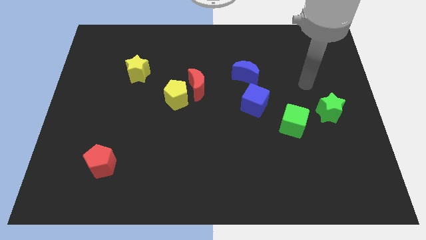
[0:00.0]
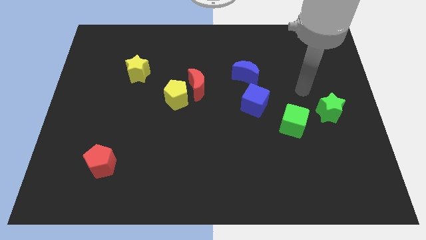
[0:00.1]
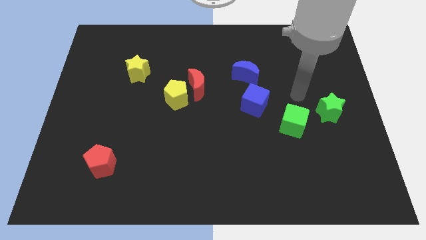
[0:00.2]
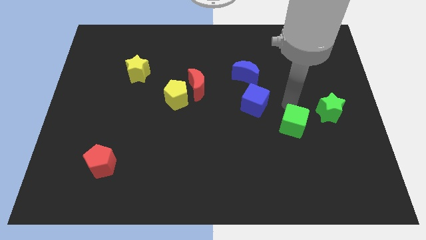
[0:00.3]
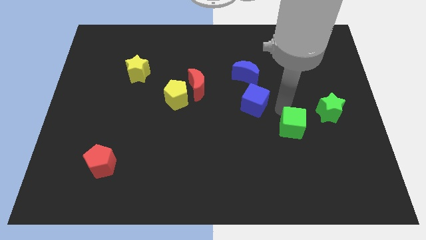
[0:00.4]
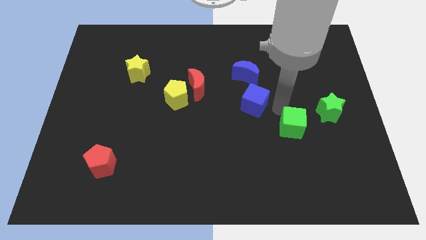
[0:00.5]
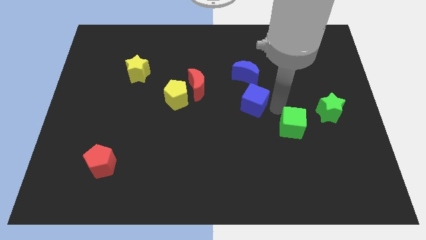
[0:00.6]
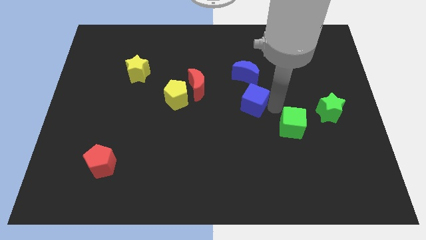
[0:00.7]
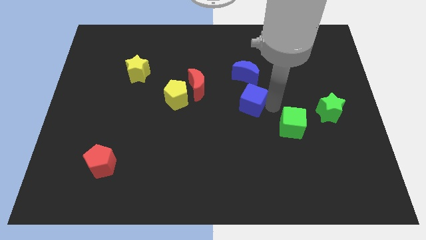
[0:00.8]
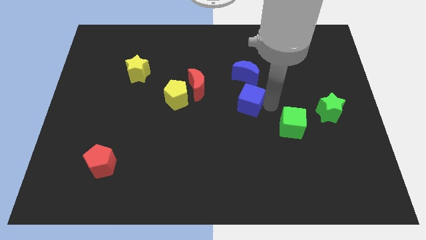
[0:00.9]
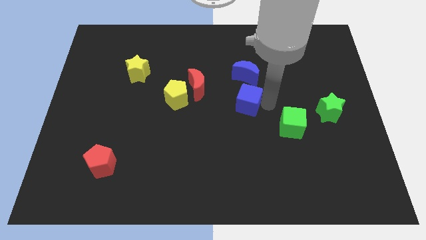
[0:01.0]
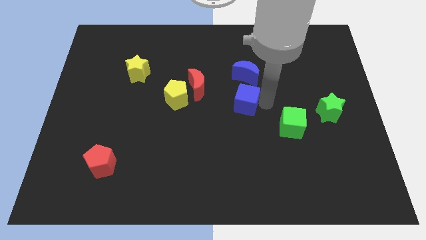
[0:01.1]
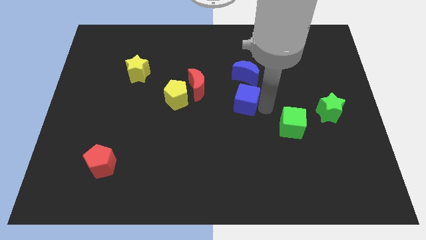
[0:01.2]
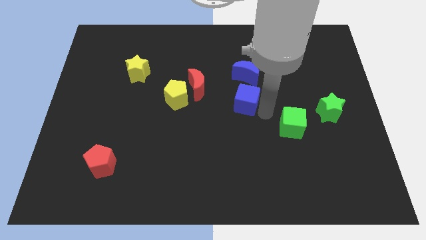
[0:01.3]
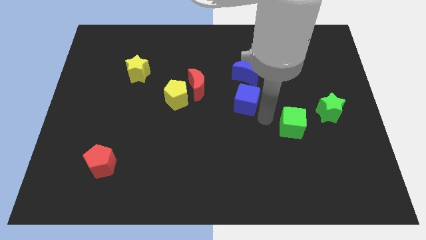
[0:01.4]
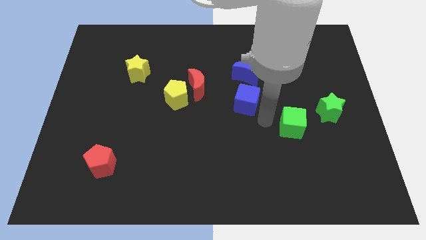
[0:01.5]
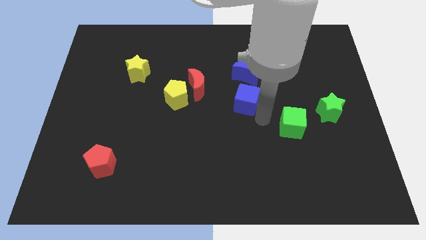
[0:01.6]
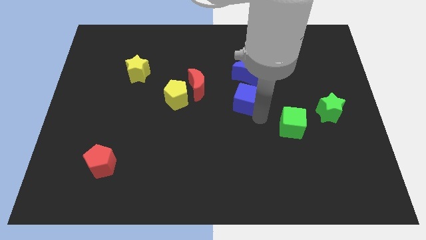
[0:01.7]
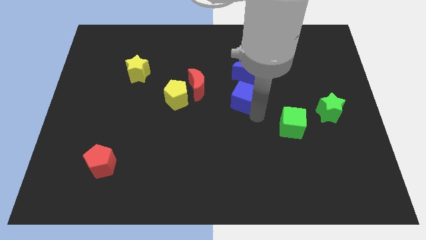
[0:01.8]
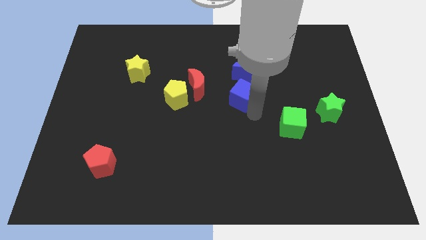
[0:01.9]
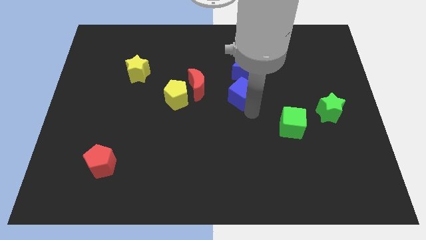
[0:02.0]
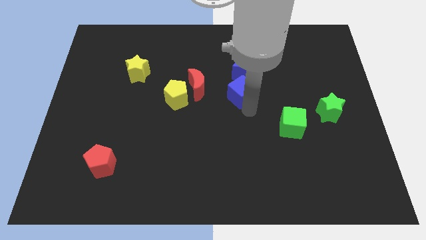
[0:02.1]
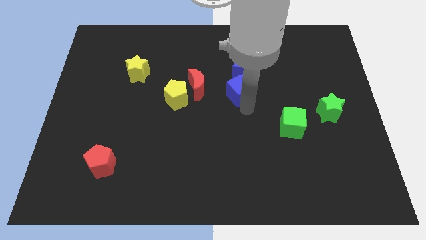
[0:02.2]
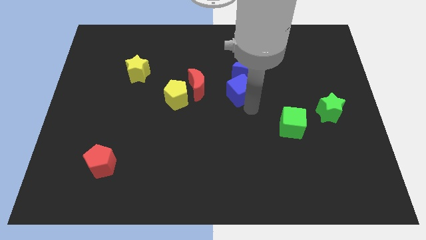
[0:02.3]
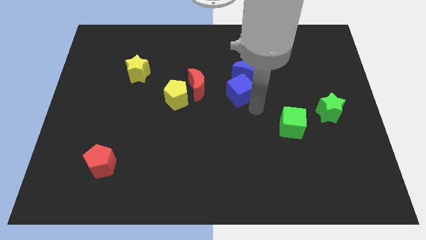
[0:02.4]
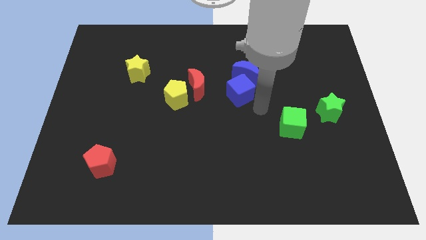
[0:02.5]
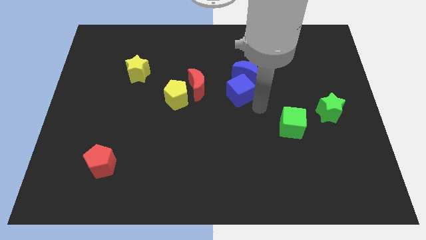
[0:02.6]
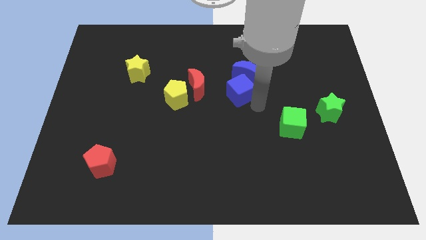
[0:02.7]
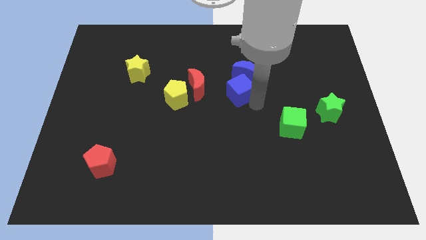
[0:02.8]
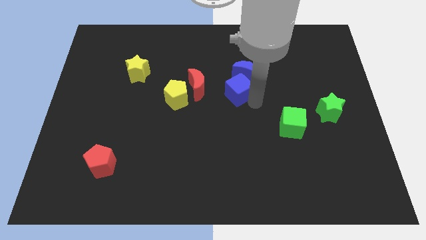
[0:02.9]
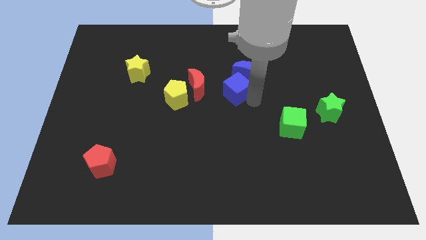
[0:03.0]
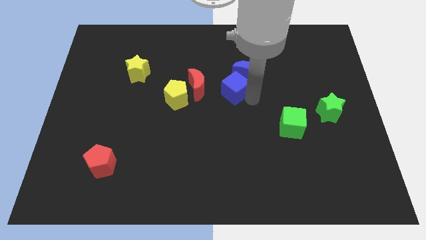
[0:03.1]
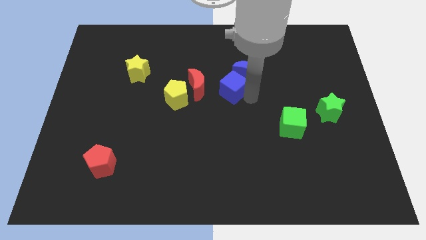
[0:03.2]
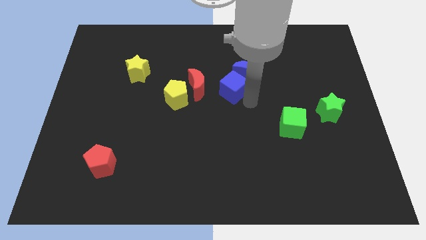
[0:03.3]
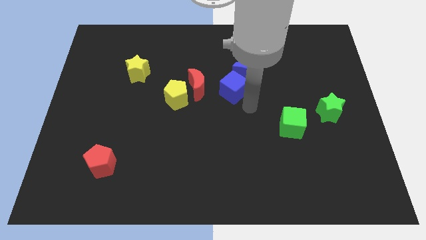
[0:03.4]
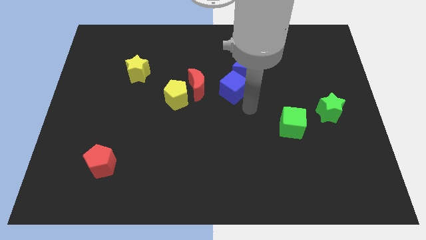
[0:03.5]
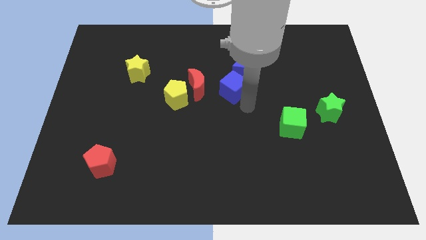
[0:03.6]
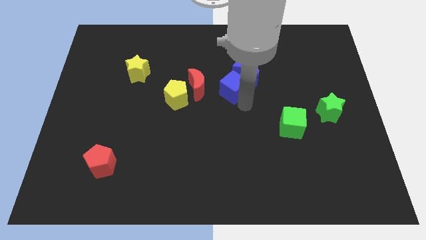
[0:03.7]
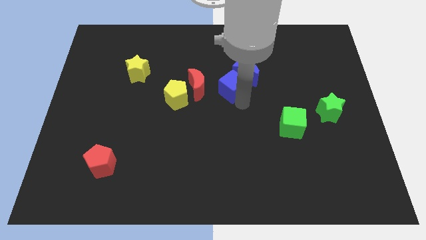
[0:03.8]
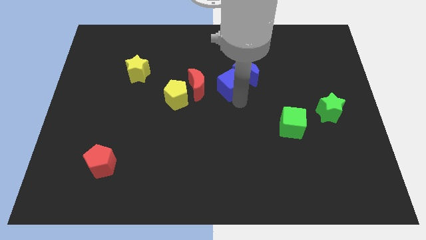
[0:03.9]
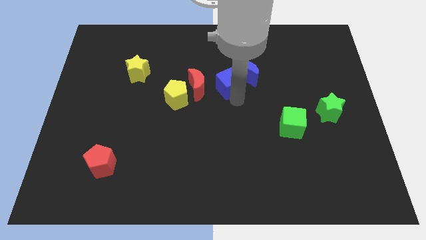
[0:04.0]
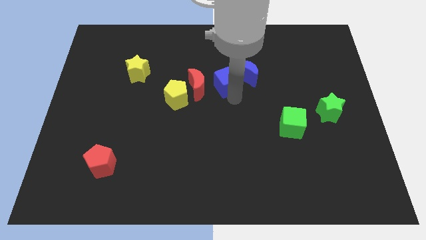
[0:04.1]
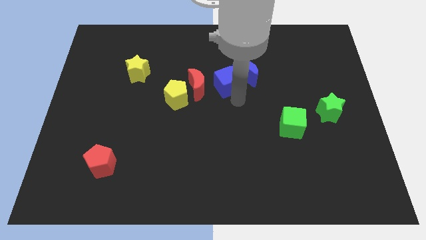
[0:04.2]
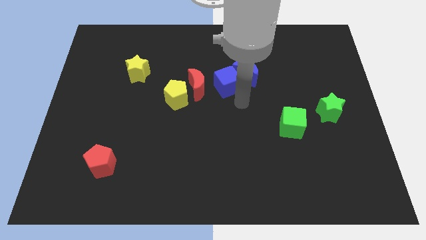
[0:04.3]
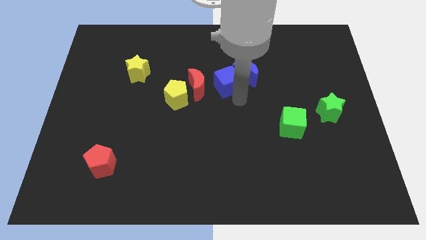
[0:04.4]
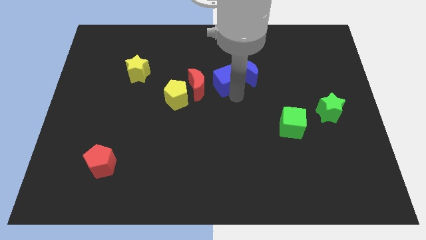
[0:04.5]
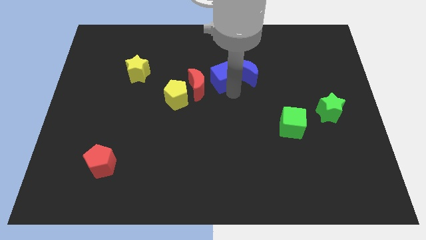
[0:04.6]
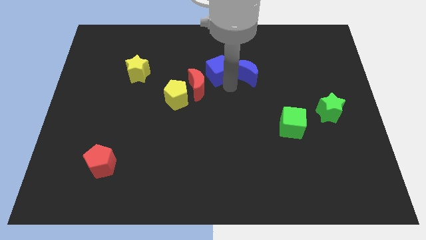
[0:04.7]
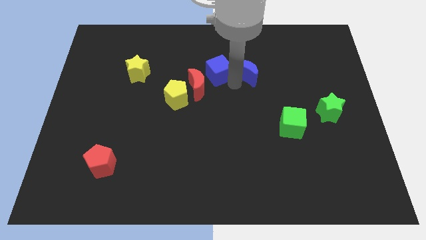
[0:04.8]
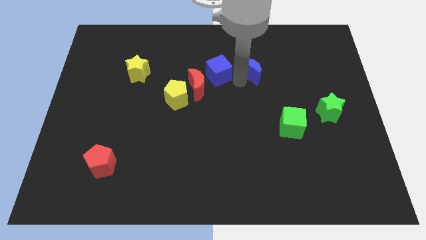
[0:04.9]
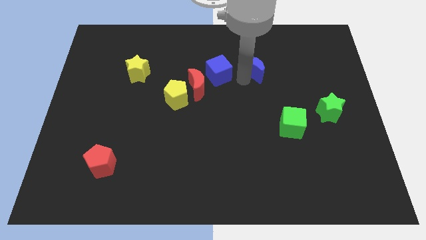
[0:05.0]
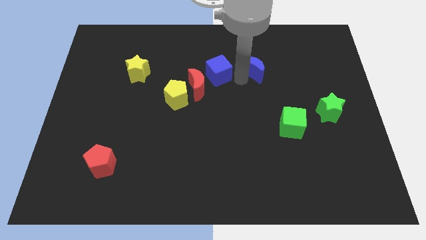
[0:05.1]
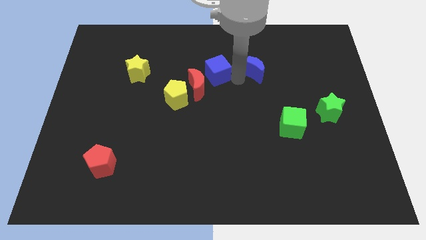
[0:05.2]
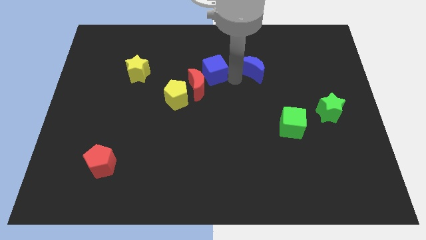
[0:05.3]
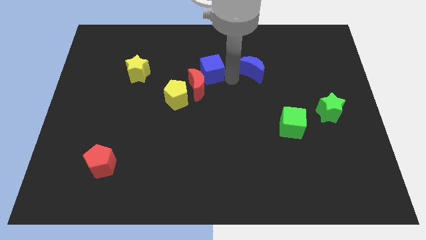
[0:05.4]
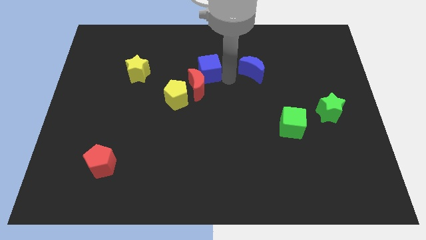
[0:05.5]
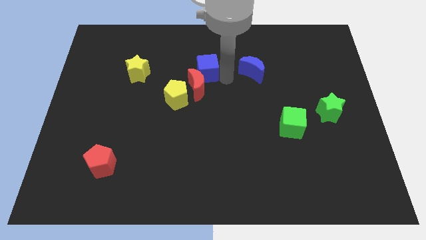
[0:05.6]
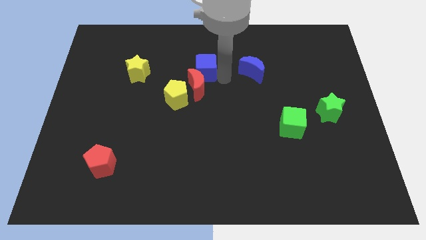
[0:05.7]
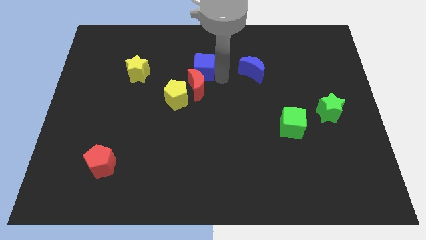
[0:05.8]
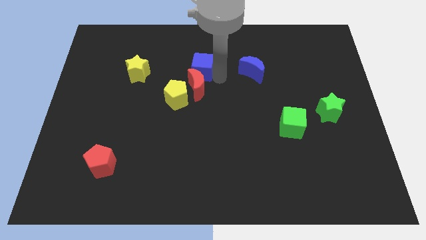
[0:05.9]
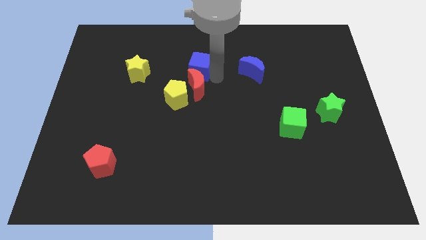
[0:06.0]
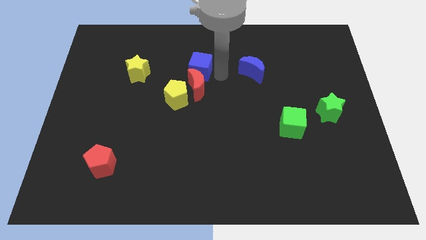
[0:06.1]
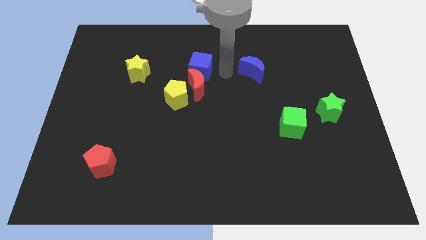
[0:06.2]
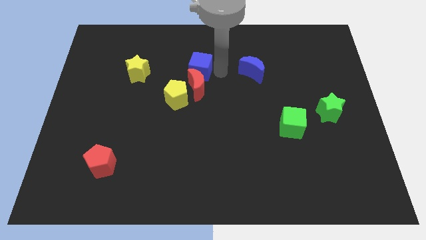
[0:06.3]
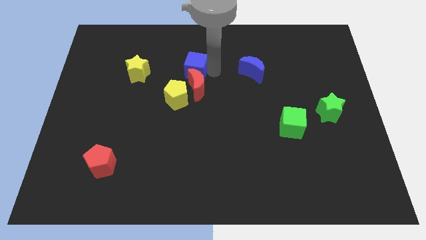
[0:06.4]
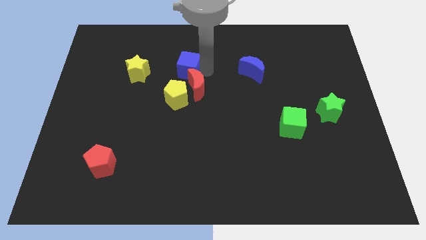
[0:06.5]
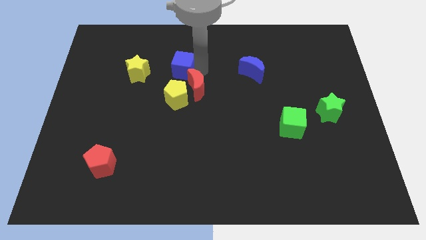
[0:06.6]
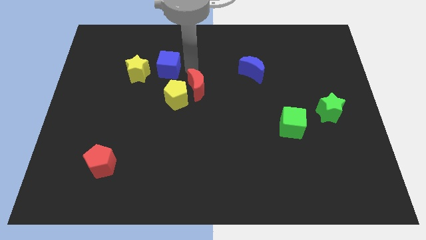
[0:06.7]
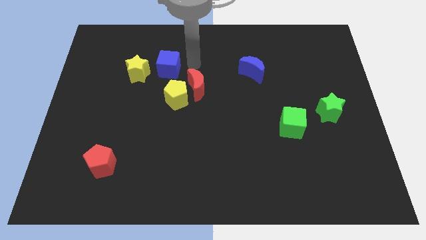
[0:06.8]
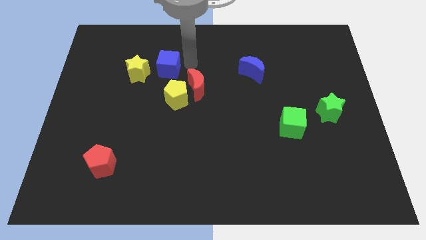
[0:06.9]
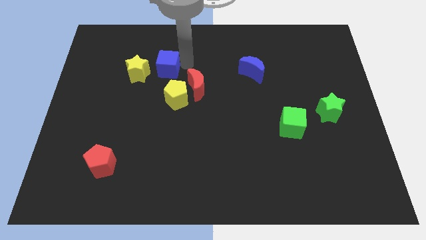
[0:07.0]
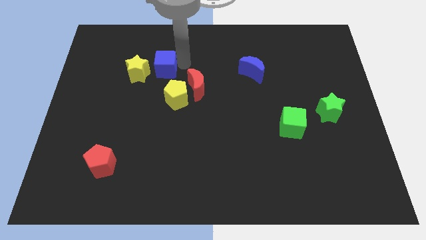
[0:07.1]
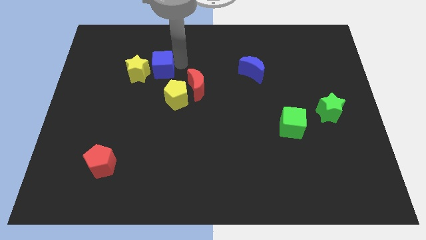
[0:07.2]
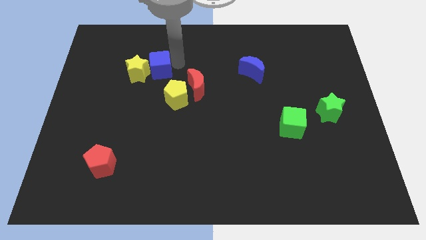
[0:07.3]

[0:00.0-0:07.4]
put the blue cube to the yellow star
